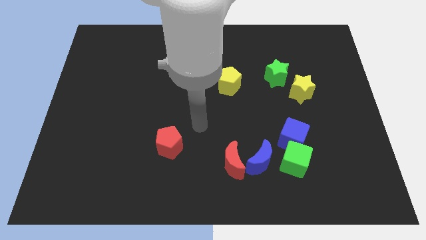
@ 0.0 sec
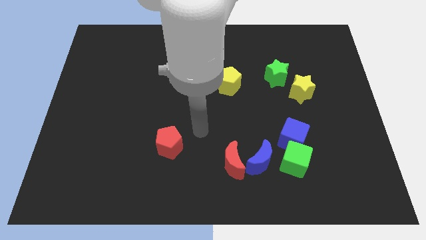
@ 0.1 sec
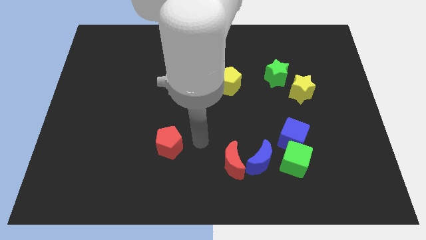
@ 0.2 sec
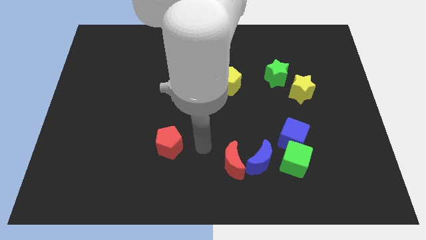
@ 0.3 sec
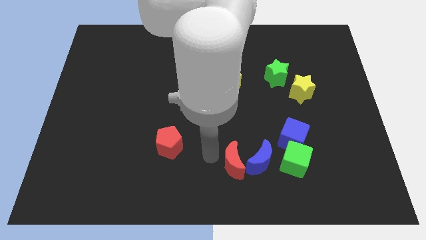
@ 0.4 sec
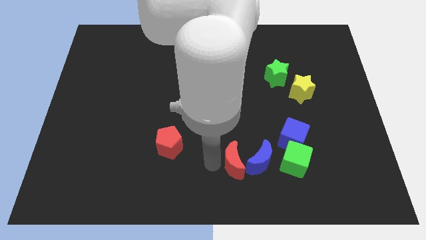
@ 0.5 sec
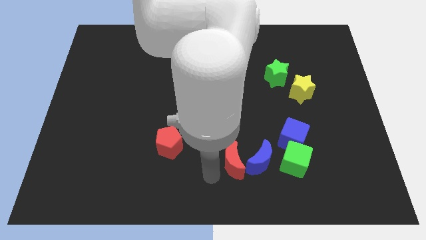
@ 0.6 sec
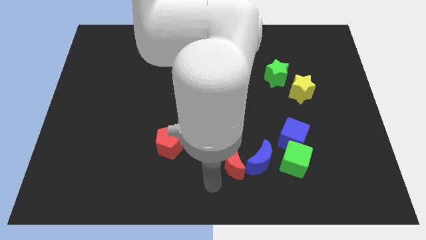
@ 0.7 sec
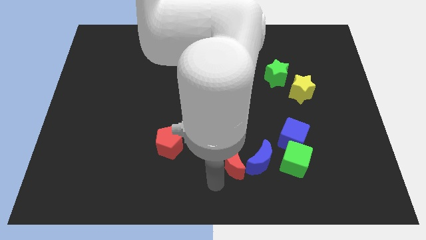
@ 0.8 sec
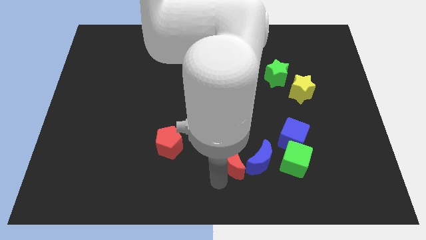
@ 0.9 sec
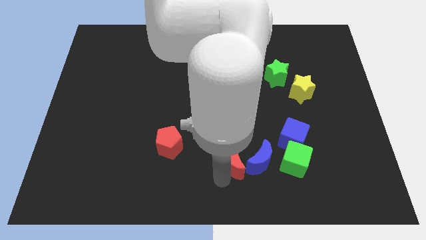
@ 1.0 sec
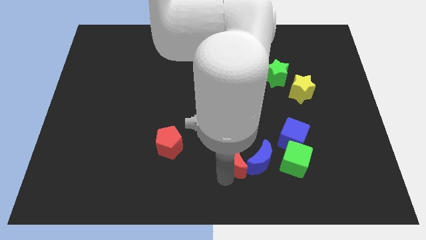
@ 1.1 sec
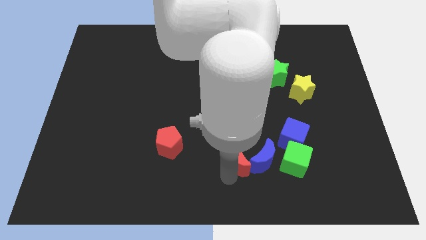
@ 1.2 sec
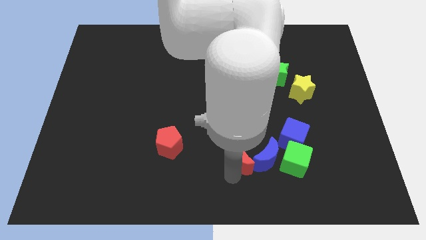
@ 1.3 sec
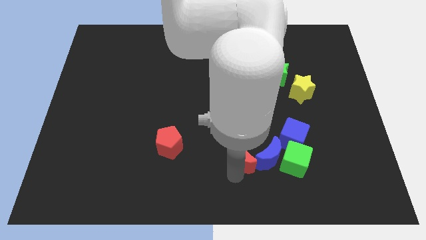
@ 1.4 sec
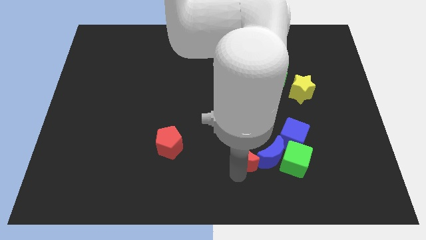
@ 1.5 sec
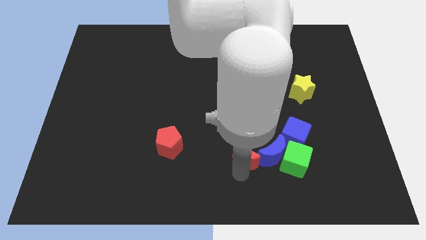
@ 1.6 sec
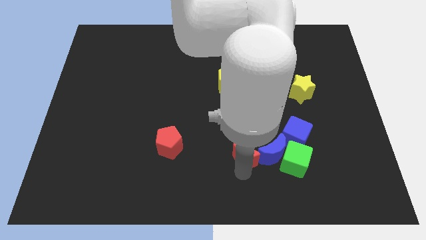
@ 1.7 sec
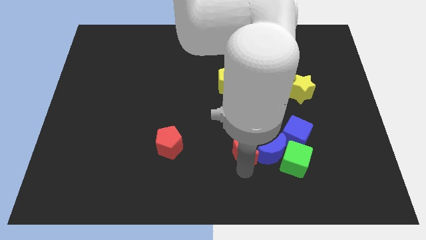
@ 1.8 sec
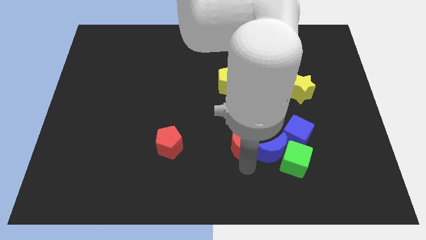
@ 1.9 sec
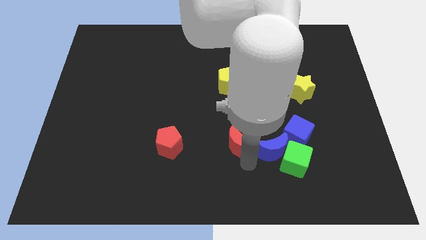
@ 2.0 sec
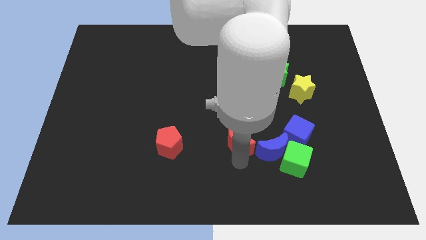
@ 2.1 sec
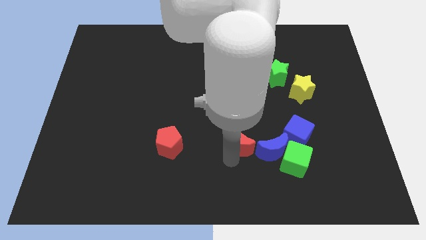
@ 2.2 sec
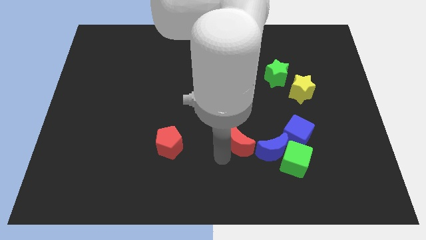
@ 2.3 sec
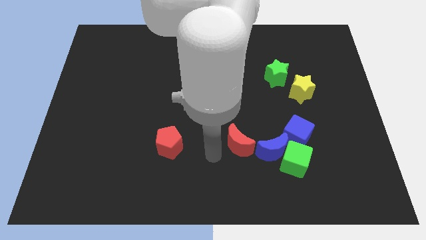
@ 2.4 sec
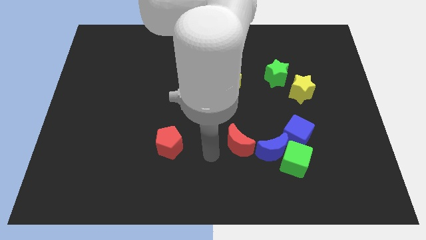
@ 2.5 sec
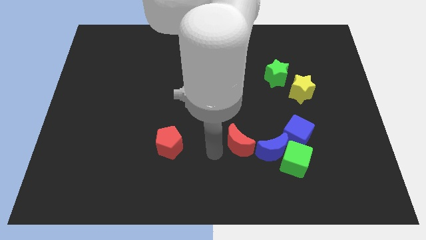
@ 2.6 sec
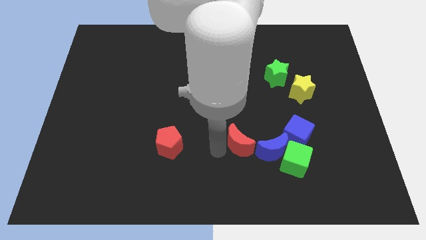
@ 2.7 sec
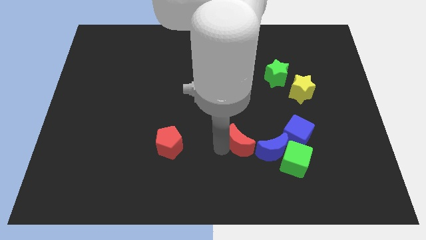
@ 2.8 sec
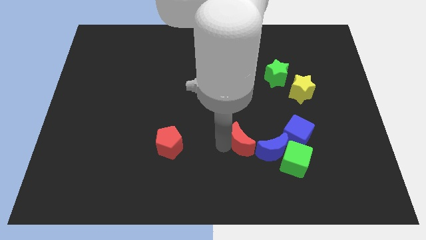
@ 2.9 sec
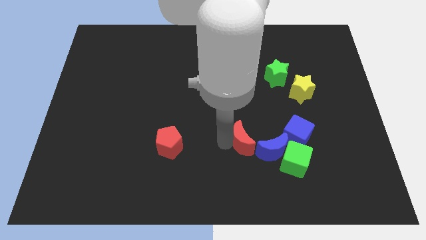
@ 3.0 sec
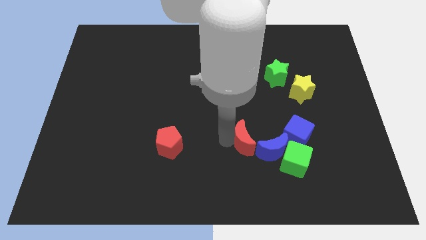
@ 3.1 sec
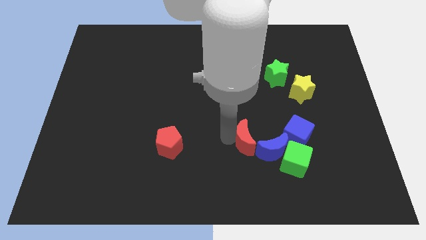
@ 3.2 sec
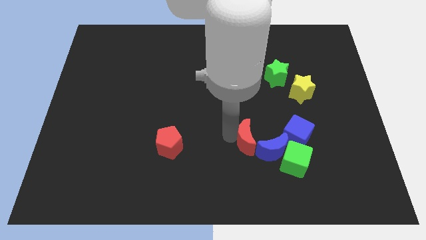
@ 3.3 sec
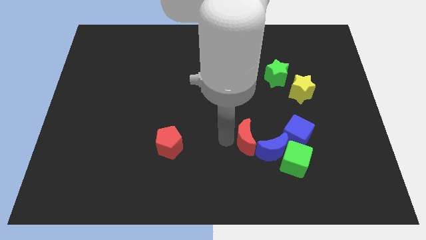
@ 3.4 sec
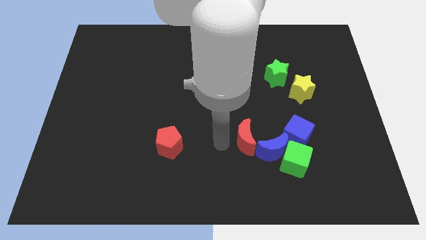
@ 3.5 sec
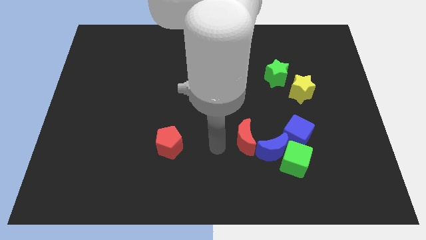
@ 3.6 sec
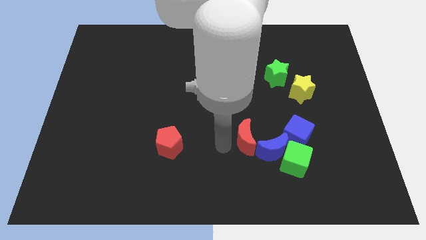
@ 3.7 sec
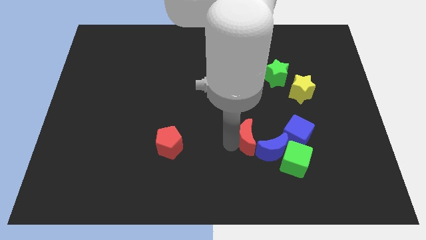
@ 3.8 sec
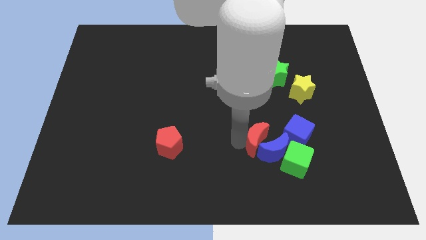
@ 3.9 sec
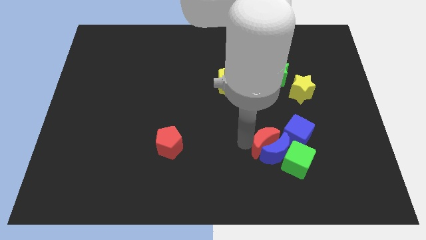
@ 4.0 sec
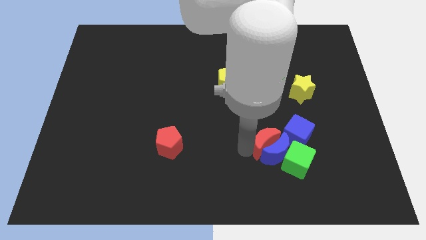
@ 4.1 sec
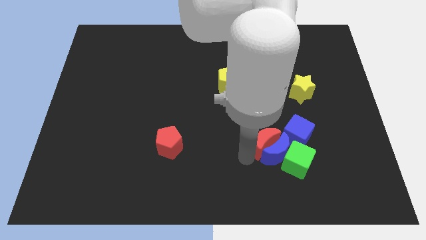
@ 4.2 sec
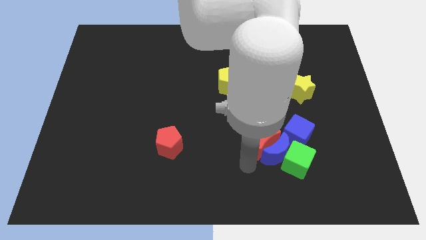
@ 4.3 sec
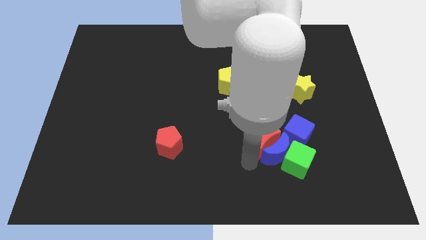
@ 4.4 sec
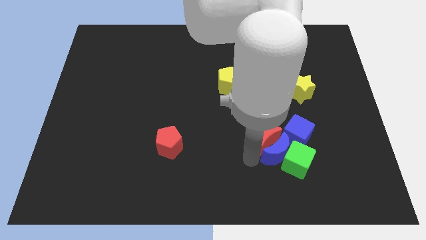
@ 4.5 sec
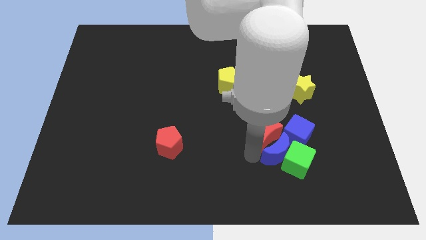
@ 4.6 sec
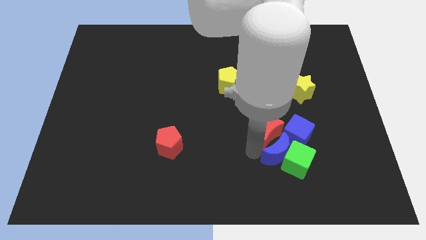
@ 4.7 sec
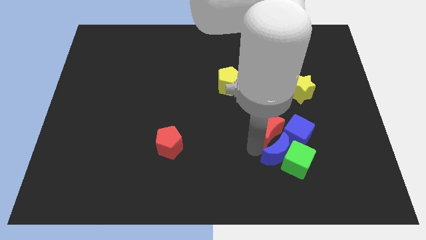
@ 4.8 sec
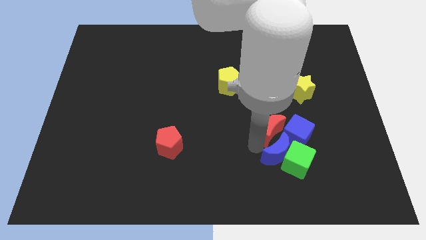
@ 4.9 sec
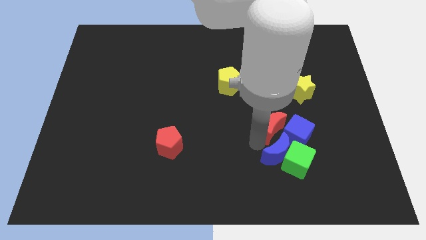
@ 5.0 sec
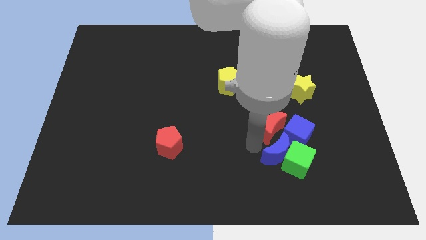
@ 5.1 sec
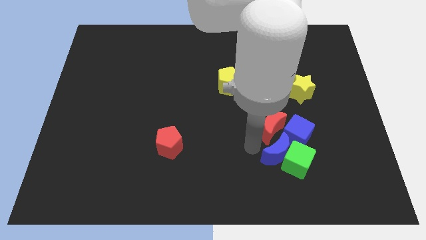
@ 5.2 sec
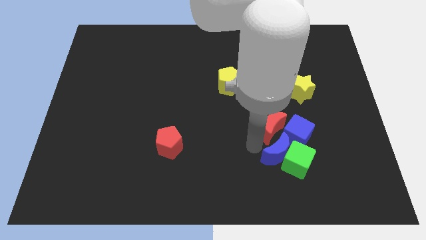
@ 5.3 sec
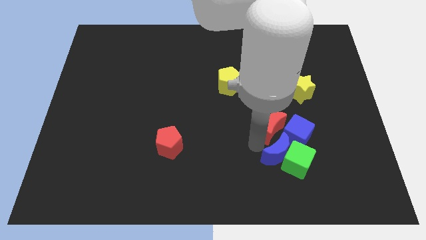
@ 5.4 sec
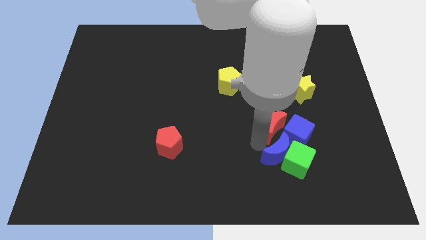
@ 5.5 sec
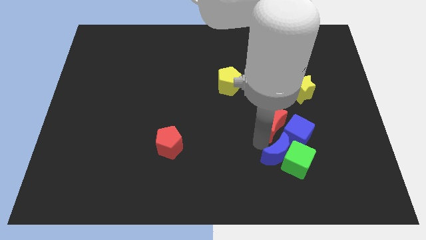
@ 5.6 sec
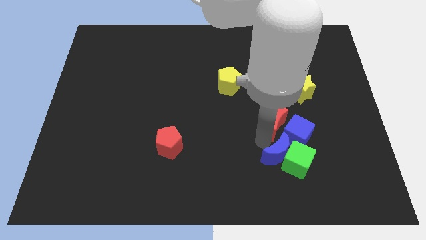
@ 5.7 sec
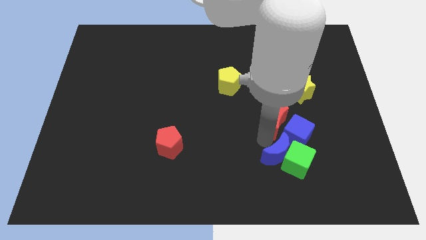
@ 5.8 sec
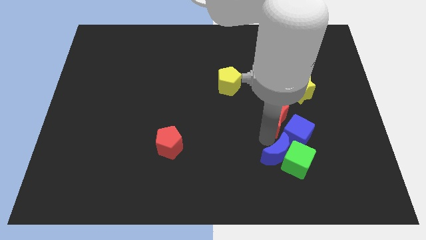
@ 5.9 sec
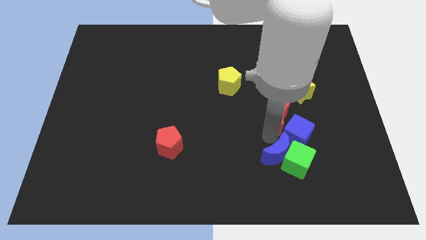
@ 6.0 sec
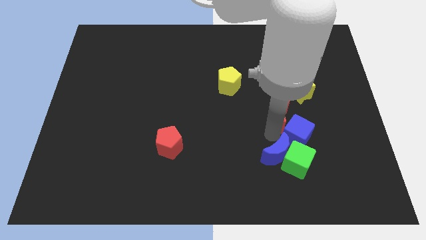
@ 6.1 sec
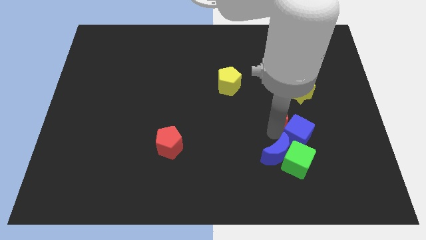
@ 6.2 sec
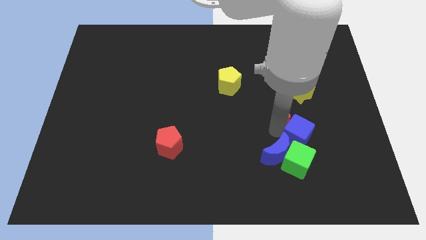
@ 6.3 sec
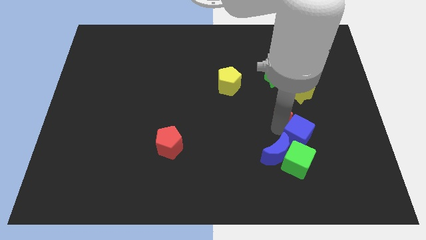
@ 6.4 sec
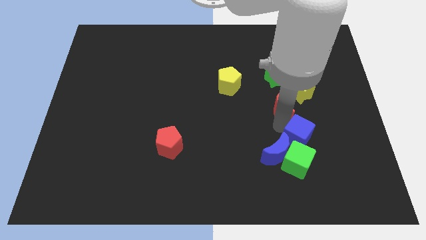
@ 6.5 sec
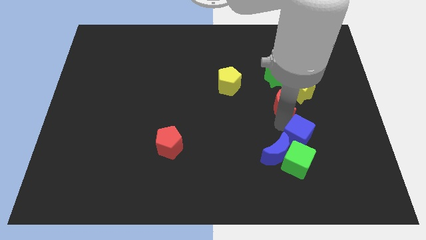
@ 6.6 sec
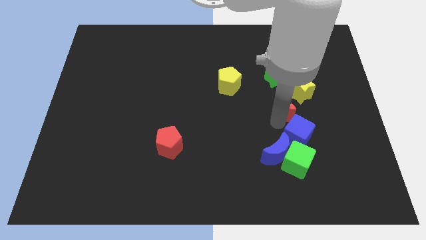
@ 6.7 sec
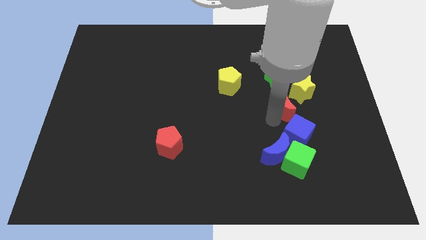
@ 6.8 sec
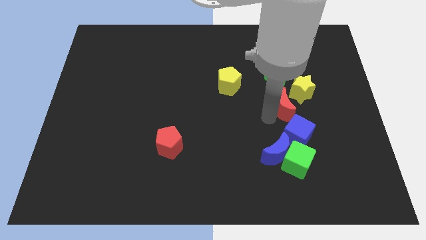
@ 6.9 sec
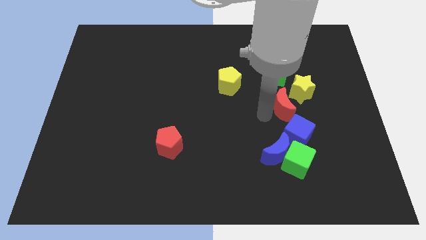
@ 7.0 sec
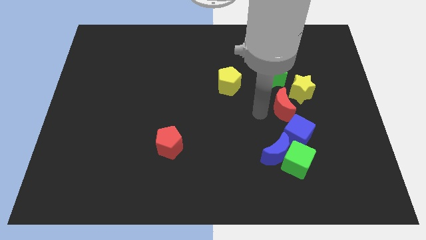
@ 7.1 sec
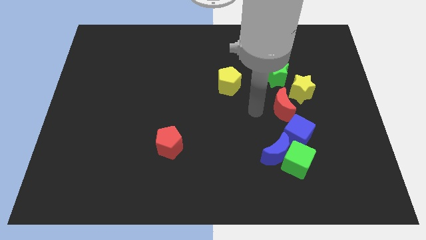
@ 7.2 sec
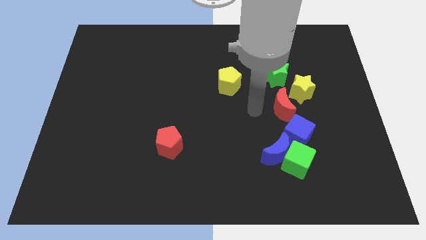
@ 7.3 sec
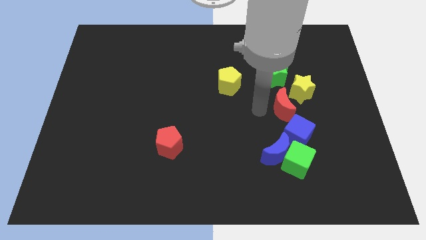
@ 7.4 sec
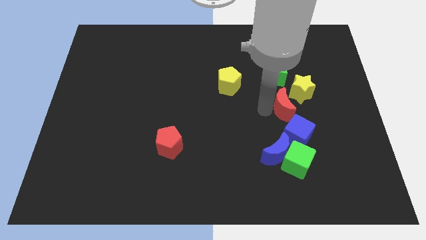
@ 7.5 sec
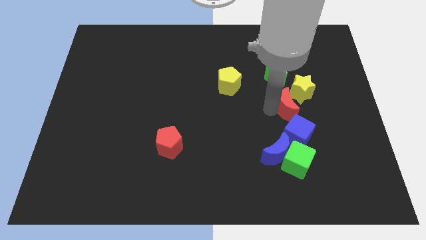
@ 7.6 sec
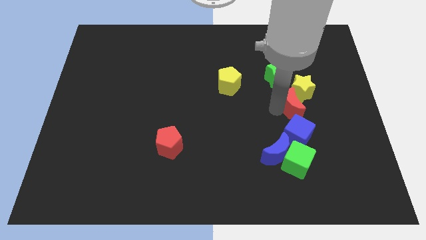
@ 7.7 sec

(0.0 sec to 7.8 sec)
put the red moon close to the yellow star
